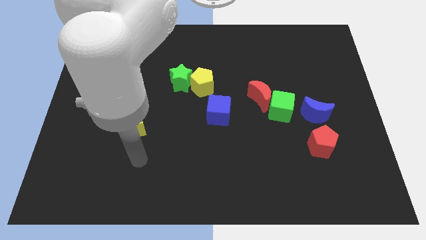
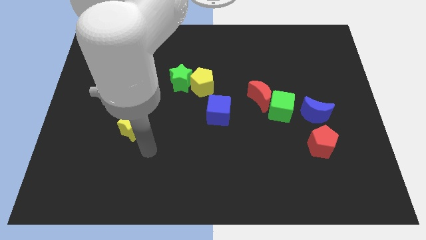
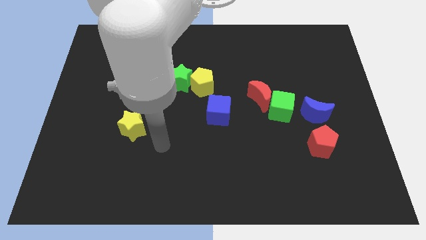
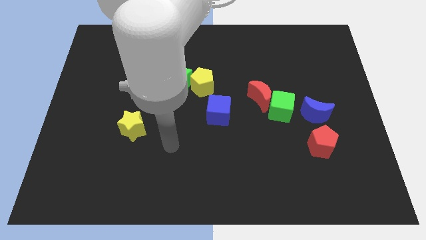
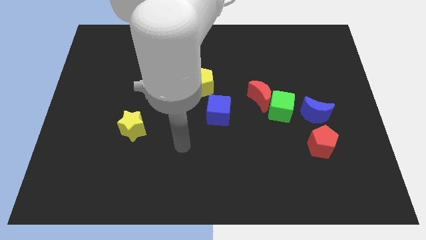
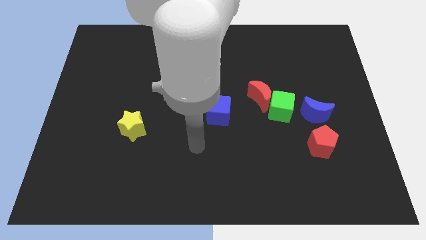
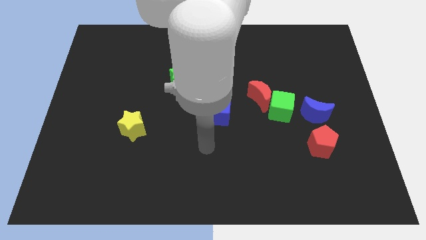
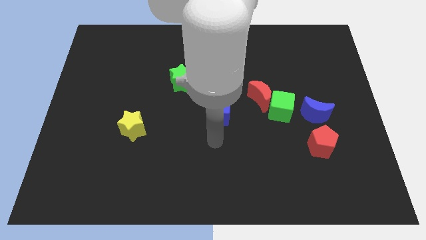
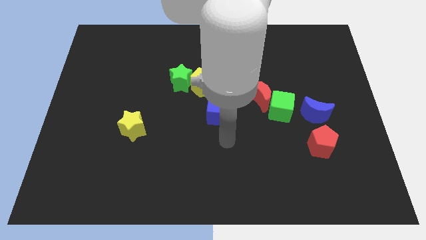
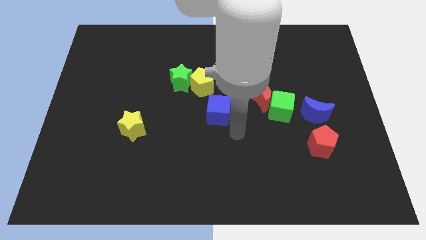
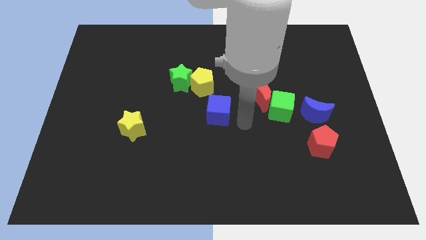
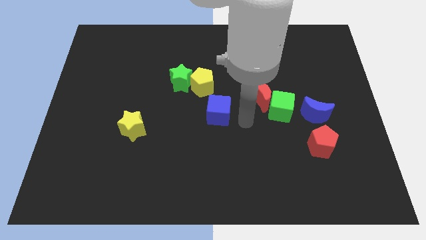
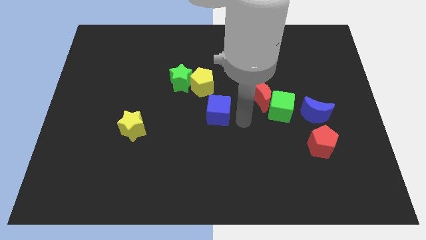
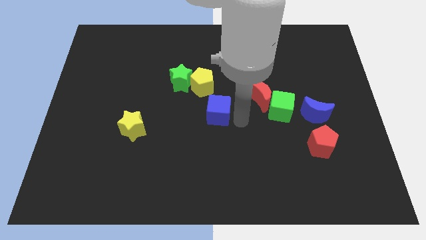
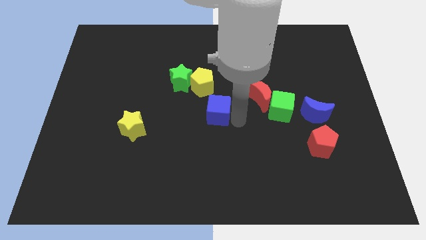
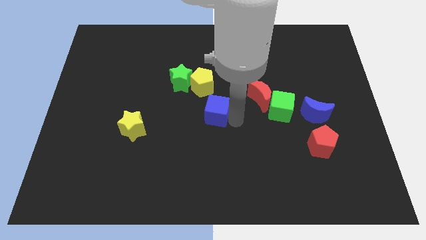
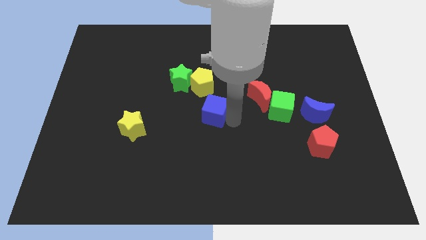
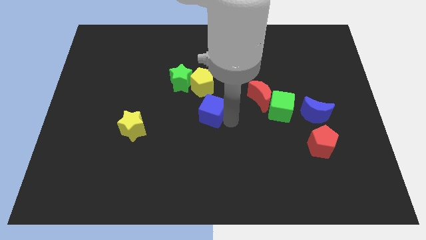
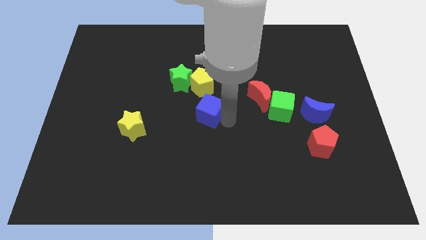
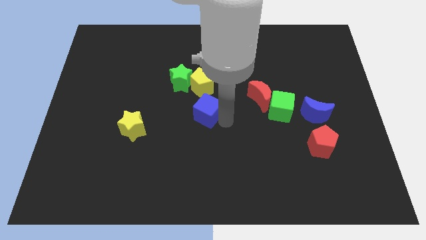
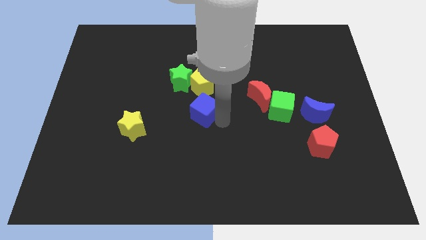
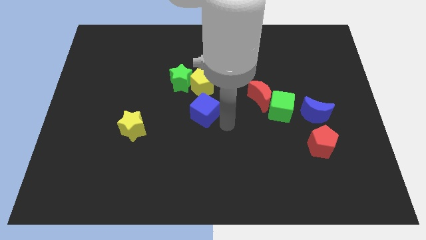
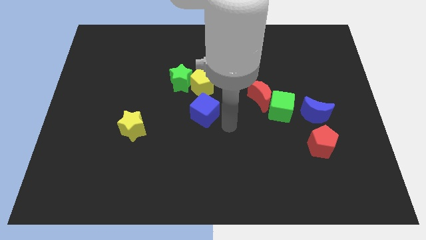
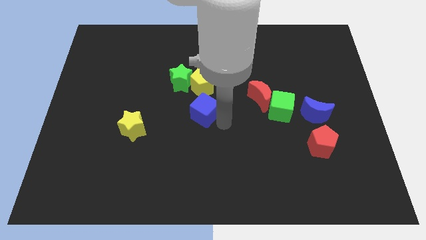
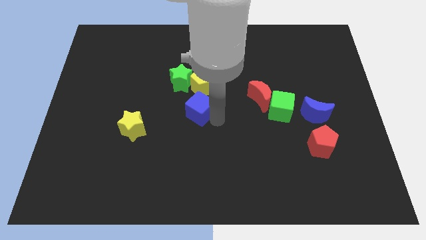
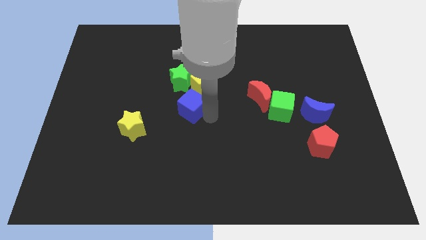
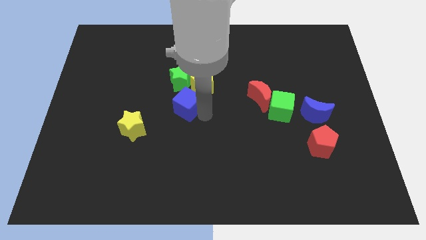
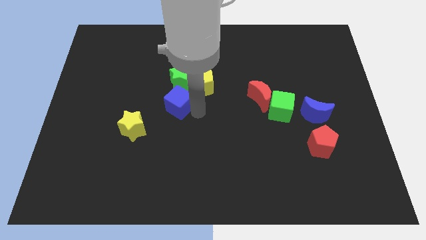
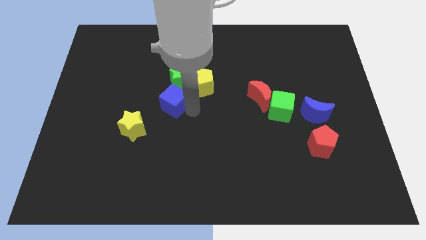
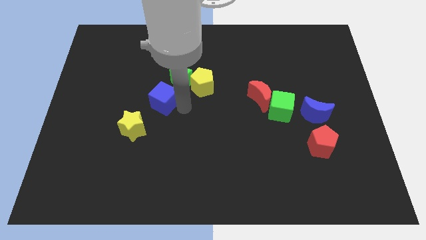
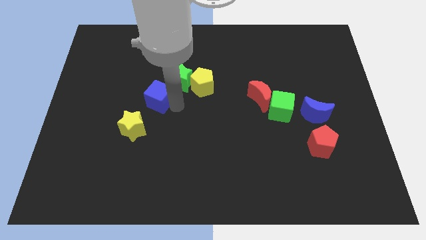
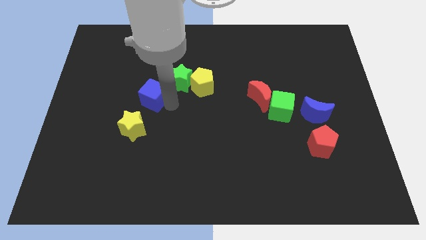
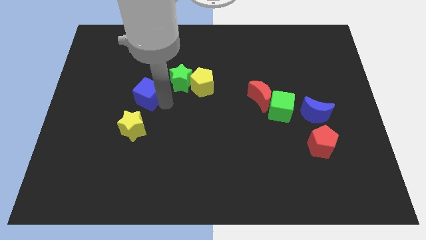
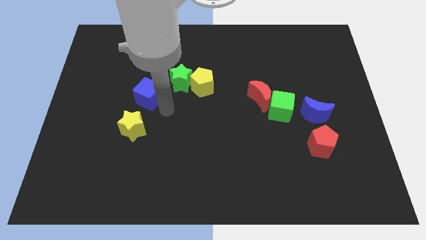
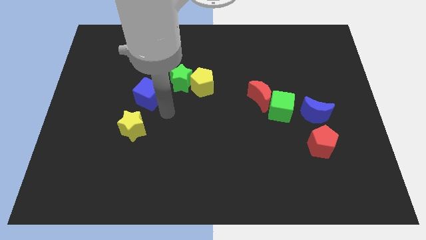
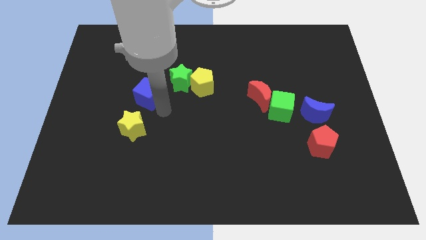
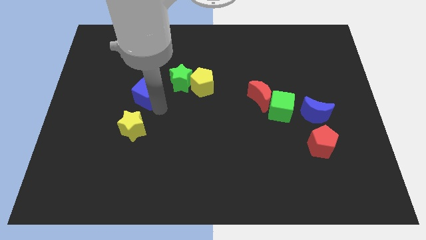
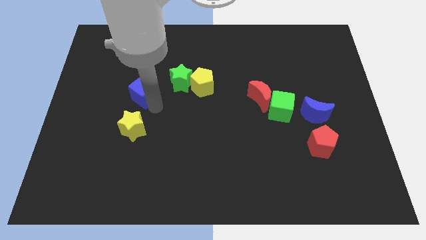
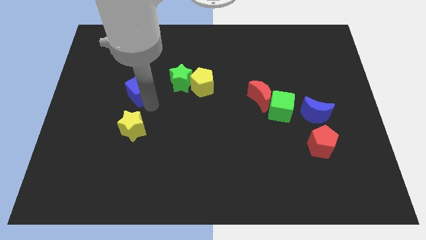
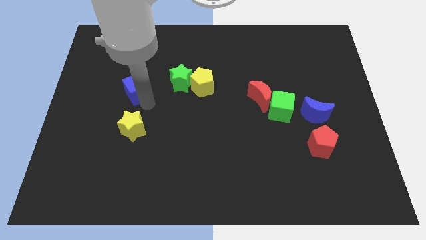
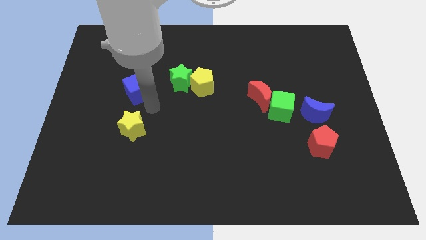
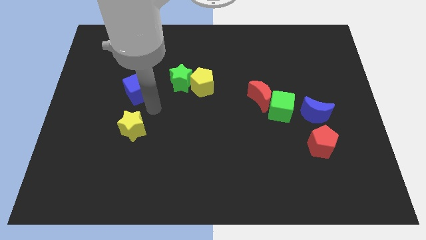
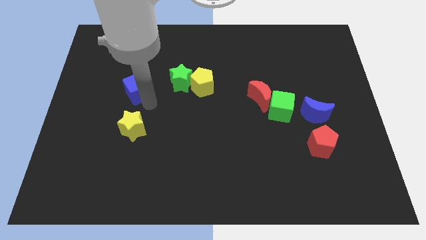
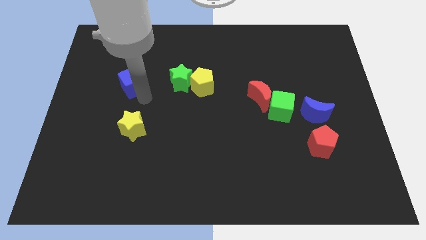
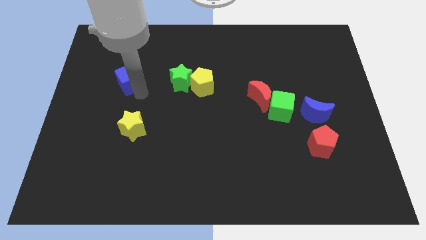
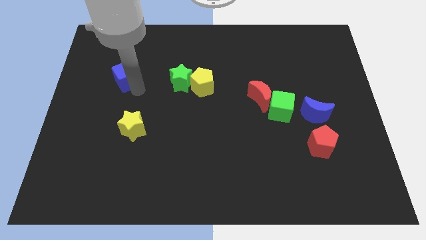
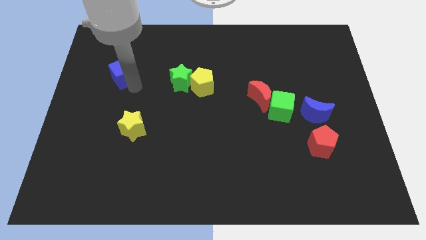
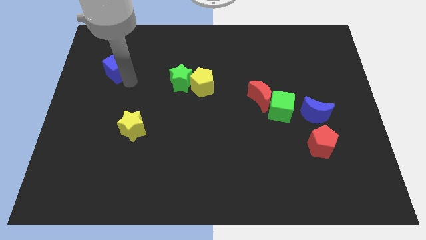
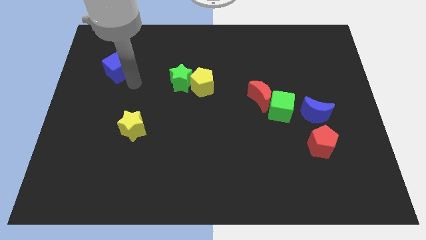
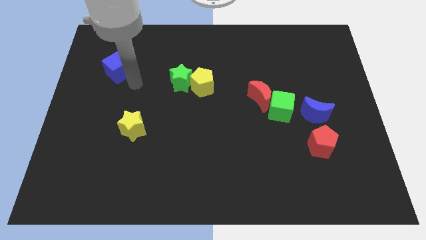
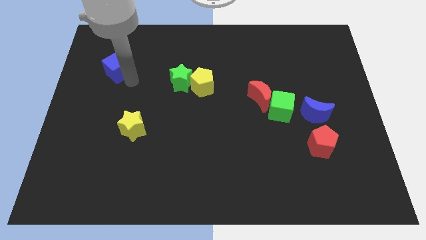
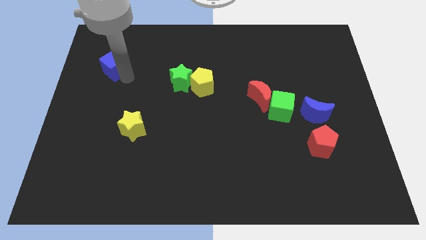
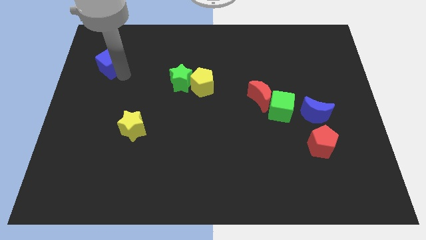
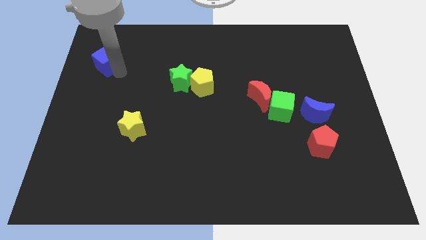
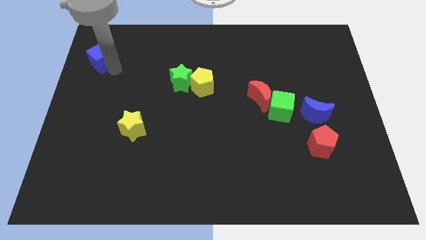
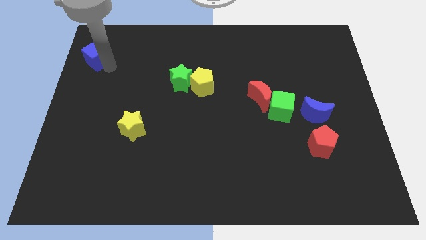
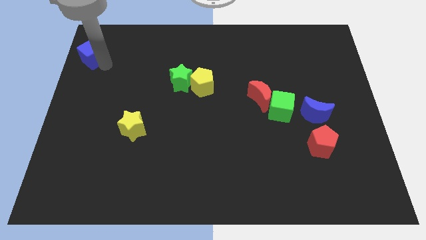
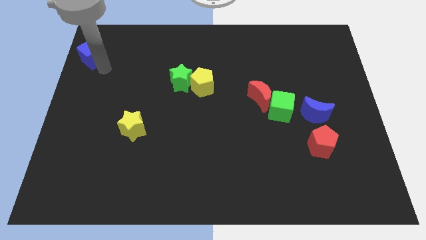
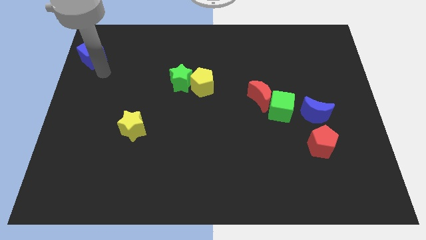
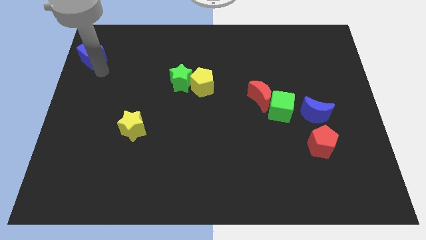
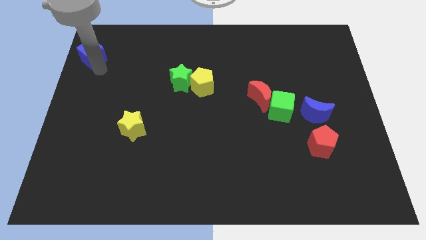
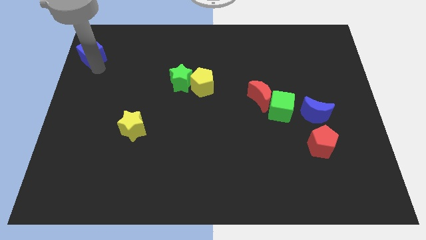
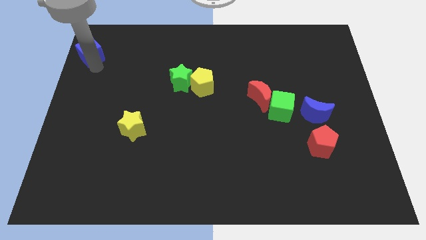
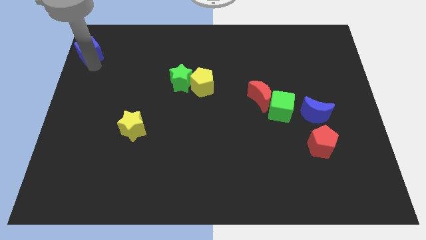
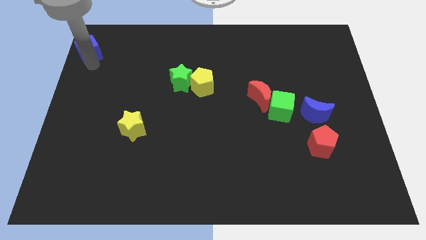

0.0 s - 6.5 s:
slide the blue cube to the top left corner
